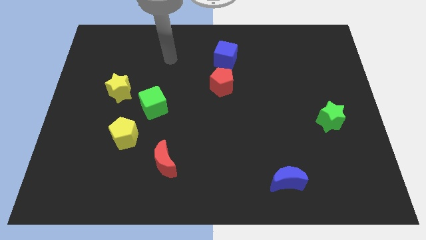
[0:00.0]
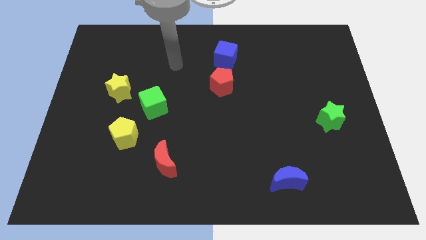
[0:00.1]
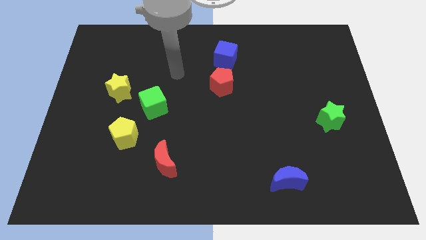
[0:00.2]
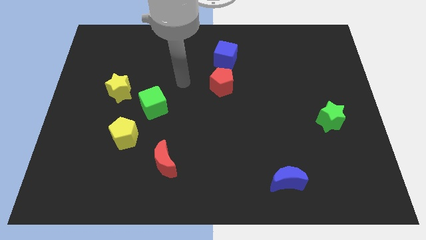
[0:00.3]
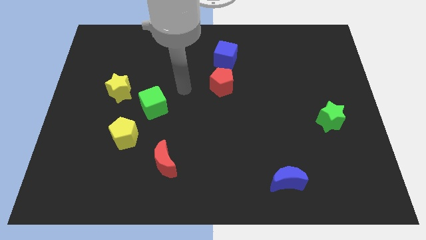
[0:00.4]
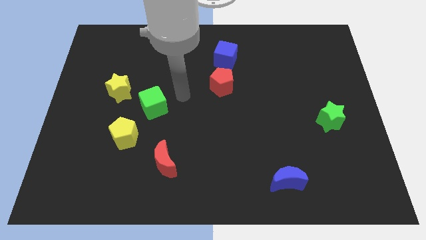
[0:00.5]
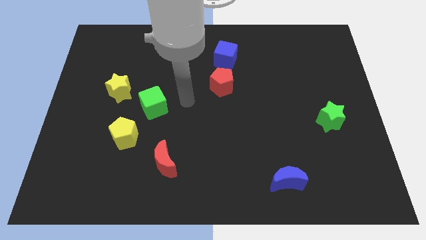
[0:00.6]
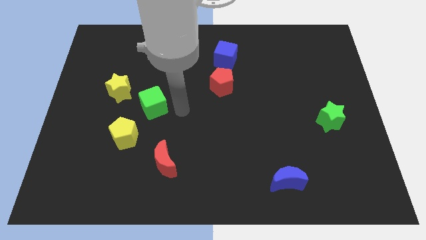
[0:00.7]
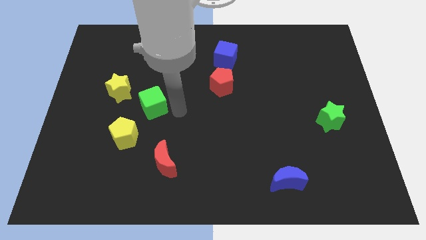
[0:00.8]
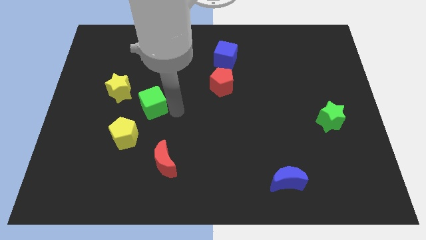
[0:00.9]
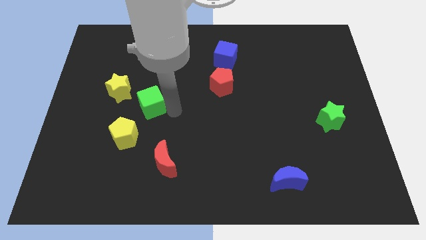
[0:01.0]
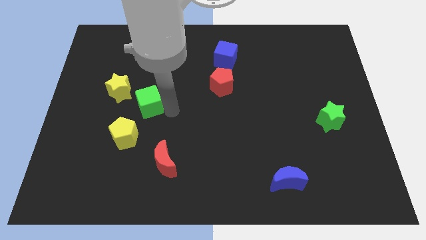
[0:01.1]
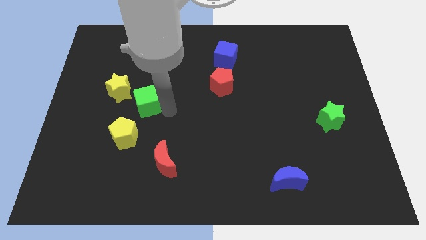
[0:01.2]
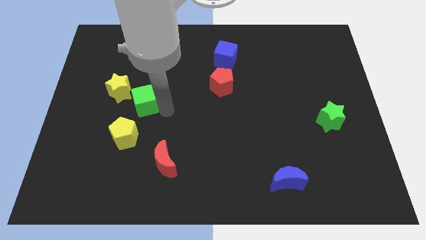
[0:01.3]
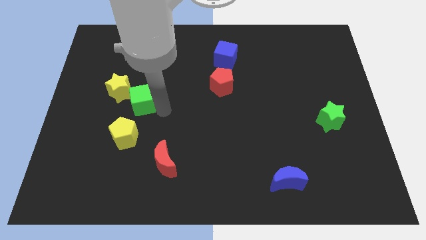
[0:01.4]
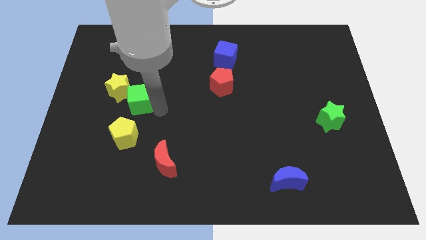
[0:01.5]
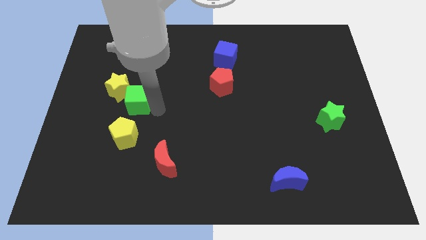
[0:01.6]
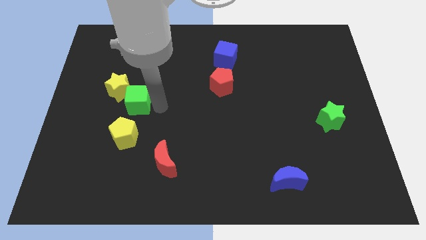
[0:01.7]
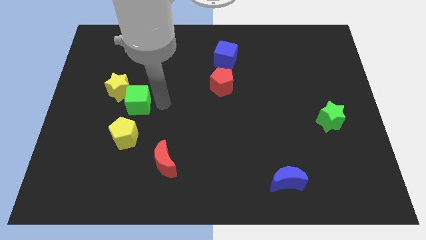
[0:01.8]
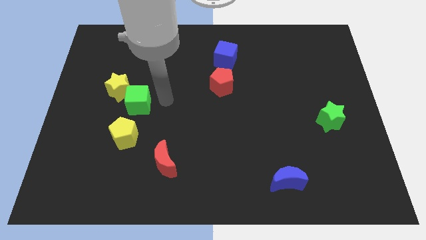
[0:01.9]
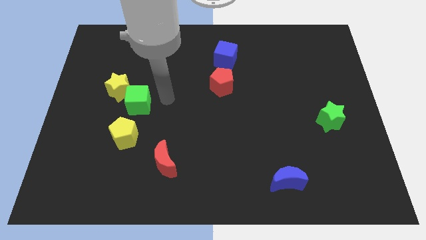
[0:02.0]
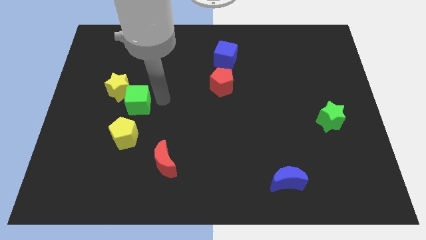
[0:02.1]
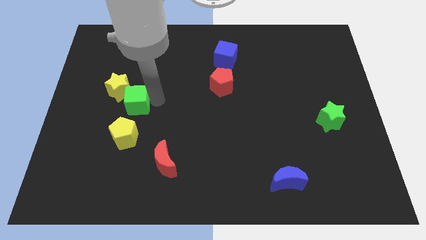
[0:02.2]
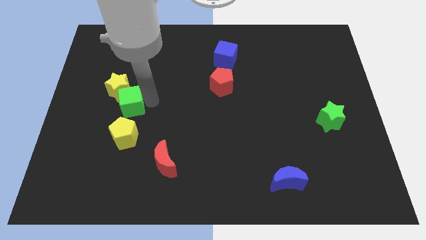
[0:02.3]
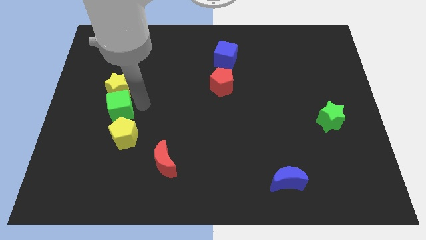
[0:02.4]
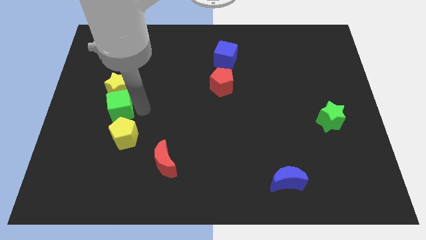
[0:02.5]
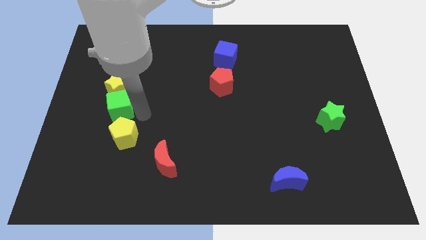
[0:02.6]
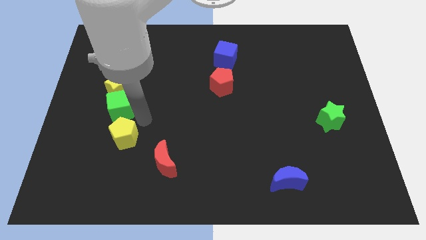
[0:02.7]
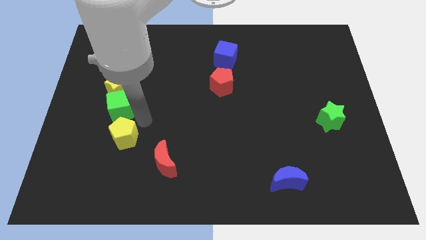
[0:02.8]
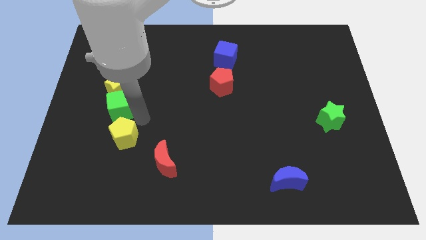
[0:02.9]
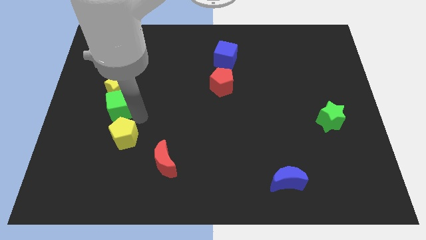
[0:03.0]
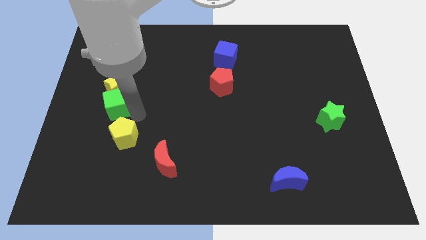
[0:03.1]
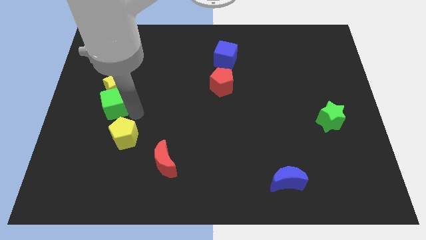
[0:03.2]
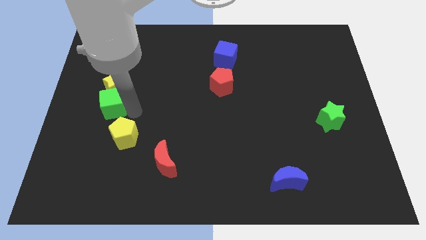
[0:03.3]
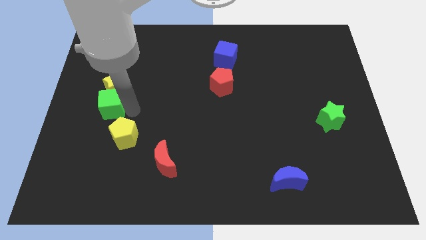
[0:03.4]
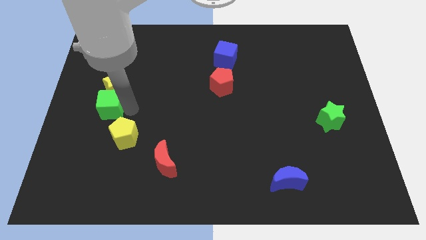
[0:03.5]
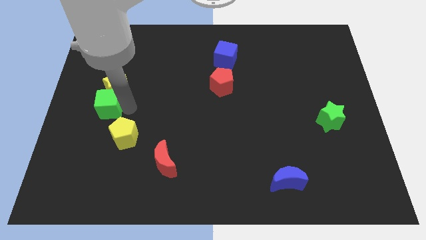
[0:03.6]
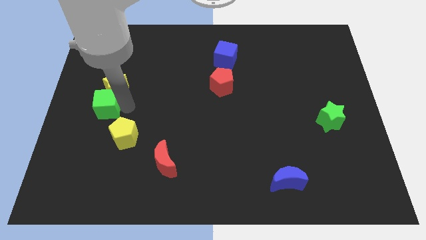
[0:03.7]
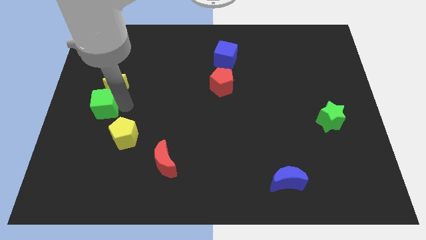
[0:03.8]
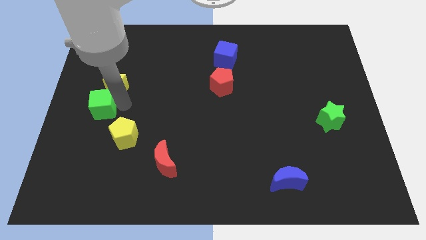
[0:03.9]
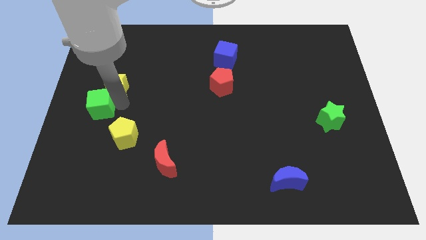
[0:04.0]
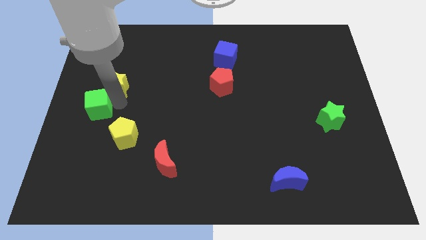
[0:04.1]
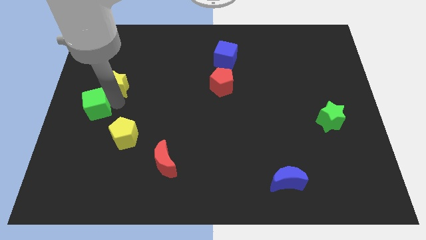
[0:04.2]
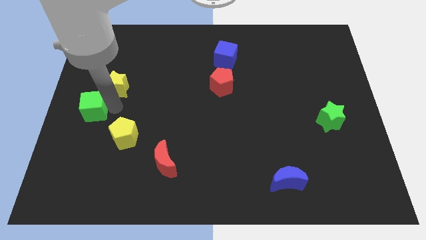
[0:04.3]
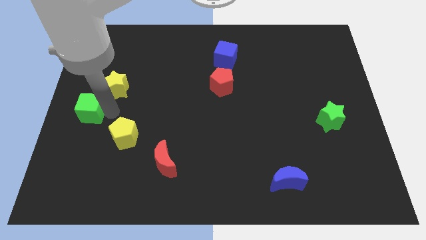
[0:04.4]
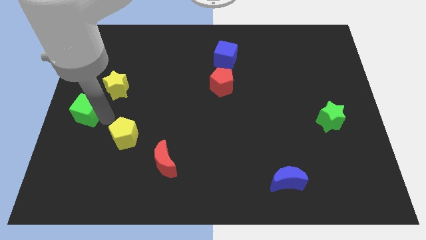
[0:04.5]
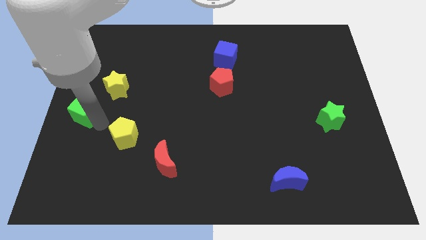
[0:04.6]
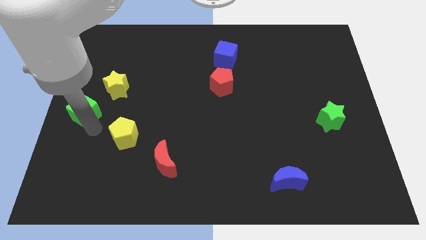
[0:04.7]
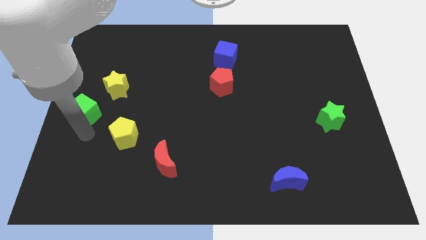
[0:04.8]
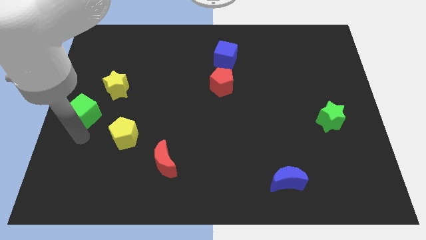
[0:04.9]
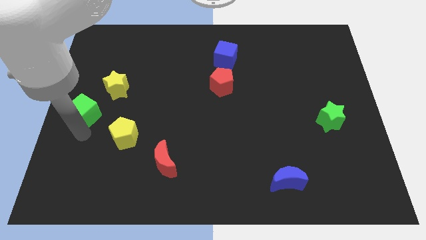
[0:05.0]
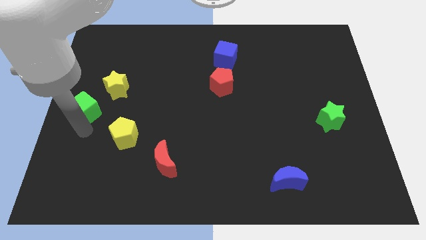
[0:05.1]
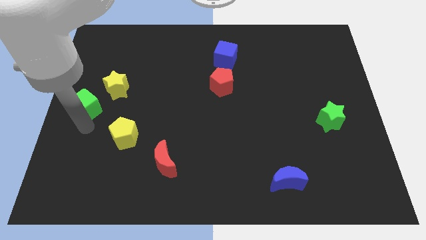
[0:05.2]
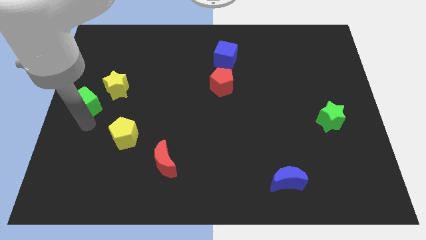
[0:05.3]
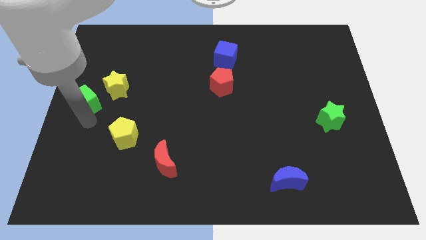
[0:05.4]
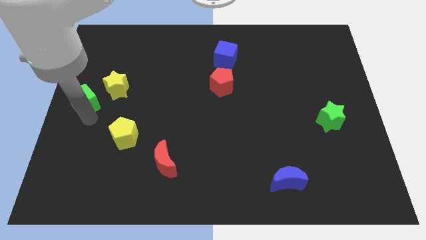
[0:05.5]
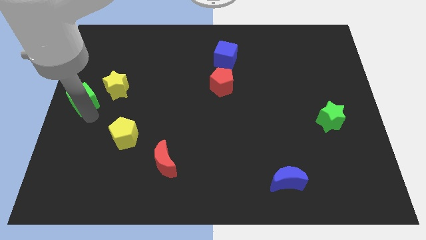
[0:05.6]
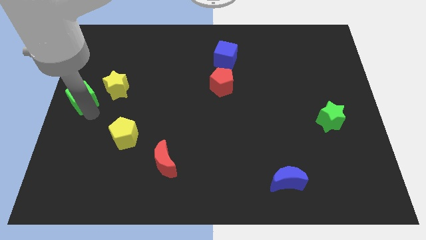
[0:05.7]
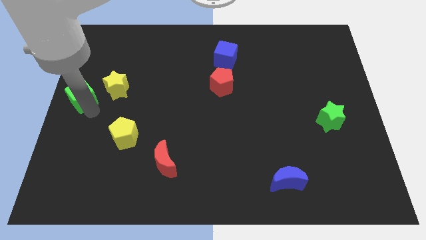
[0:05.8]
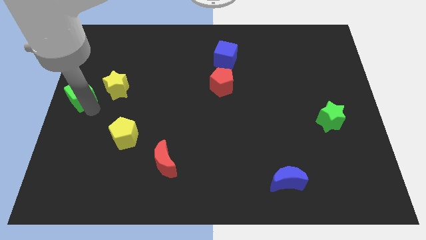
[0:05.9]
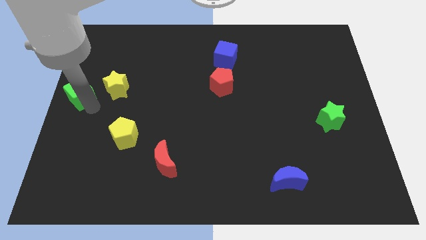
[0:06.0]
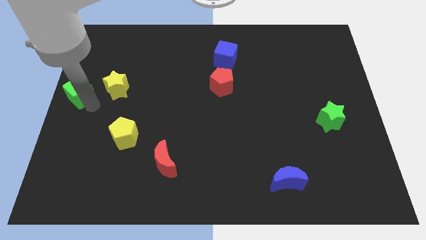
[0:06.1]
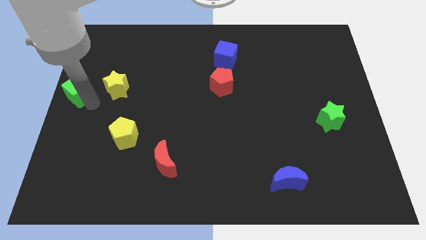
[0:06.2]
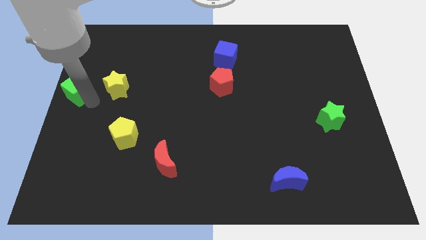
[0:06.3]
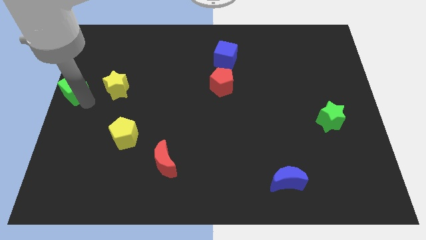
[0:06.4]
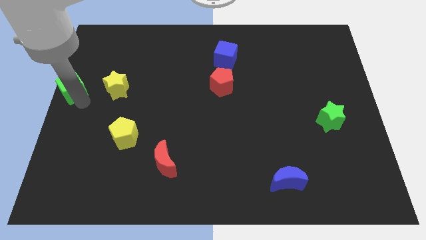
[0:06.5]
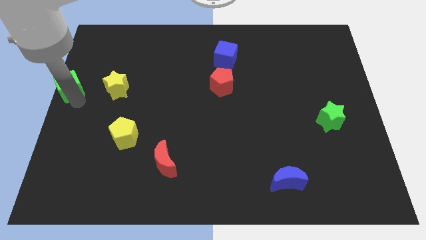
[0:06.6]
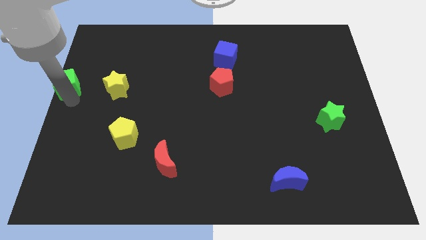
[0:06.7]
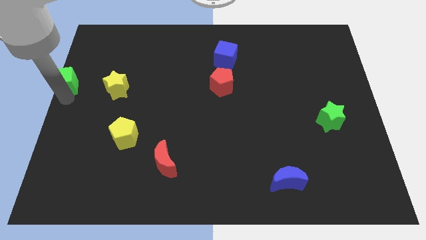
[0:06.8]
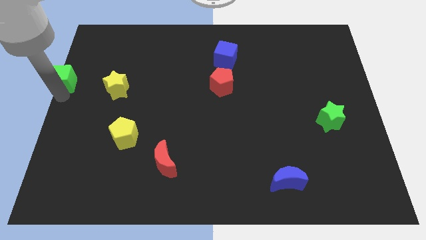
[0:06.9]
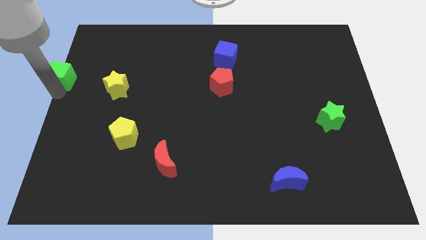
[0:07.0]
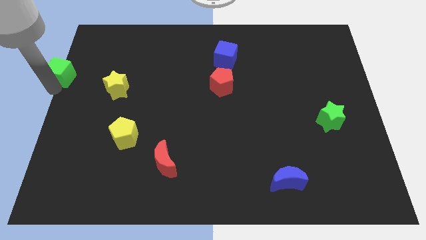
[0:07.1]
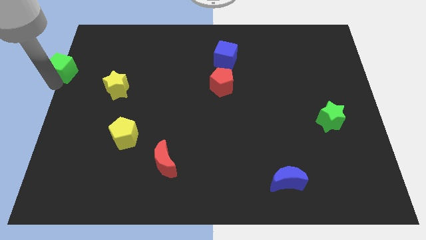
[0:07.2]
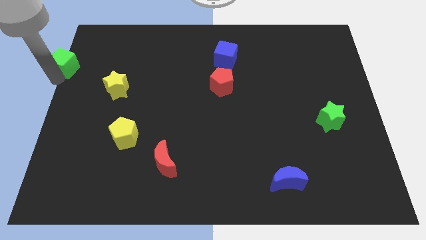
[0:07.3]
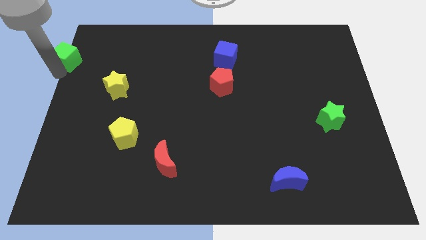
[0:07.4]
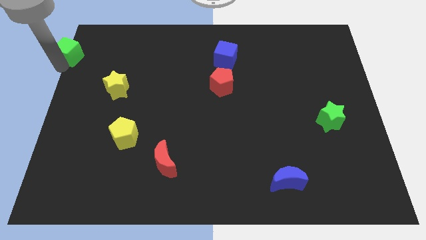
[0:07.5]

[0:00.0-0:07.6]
push the green cube to the top left of the board
